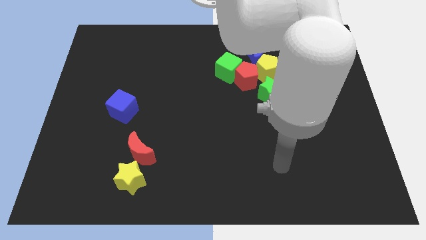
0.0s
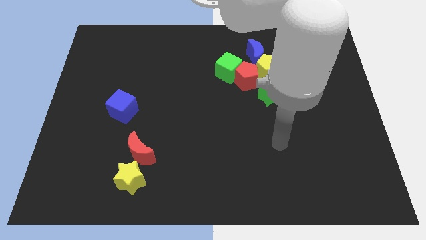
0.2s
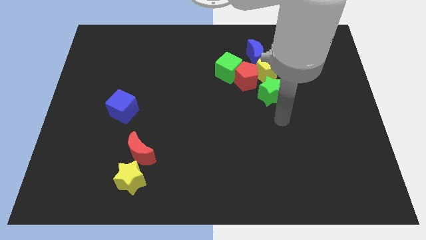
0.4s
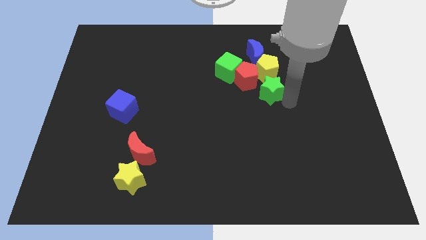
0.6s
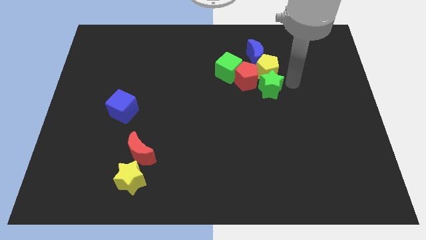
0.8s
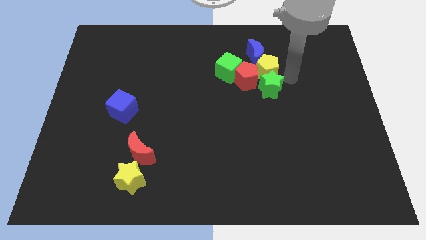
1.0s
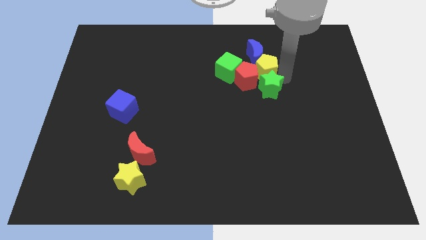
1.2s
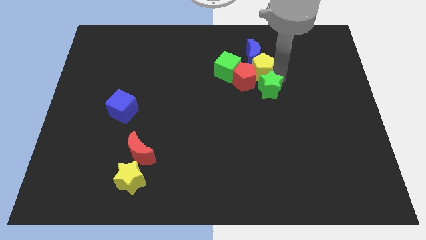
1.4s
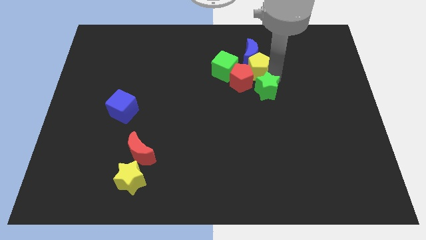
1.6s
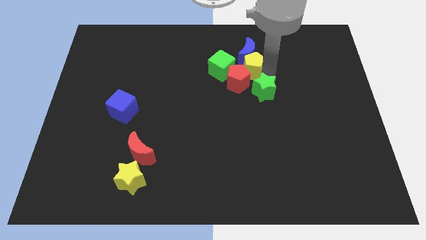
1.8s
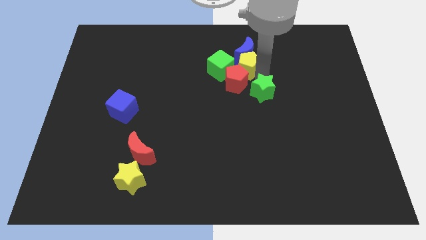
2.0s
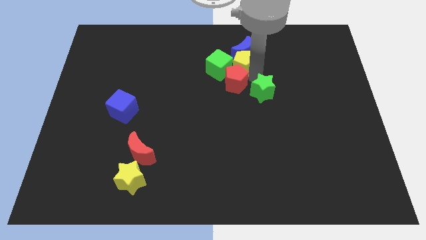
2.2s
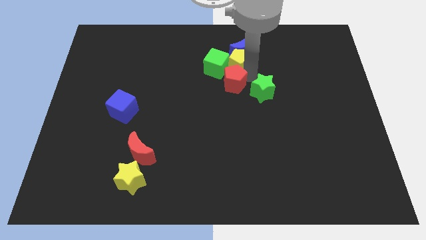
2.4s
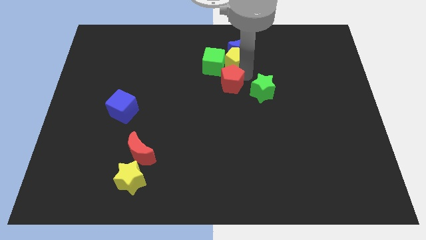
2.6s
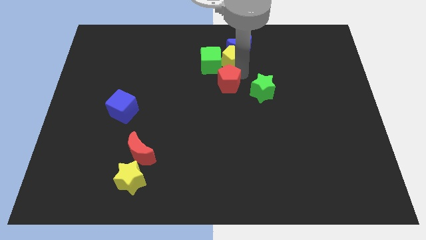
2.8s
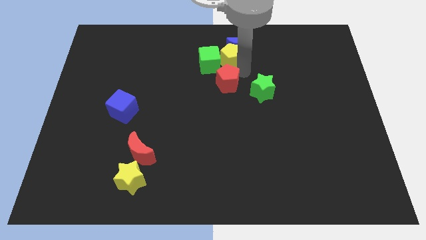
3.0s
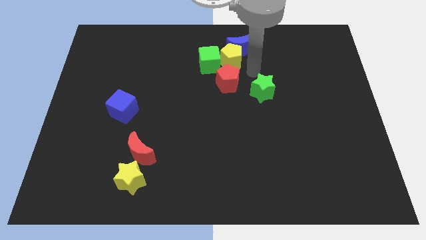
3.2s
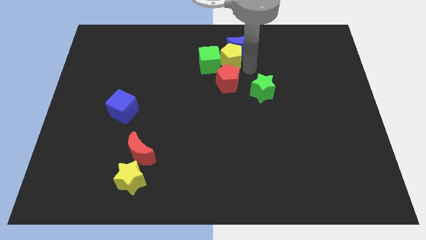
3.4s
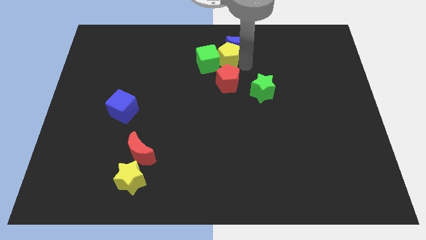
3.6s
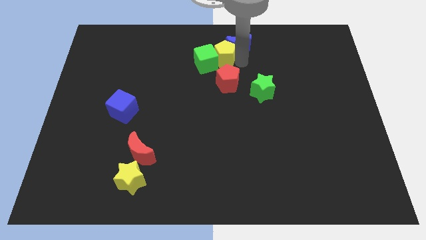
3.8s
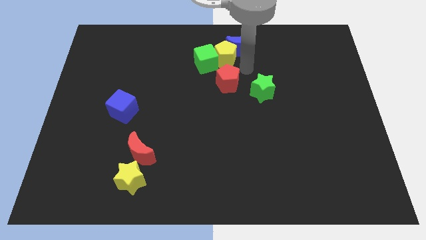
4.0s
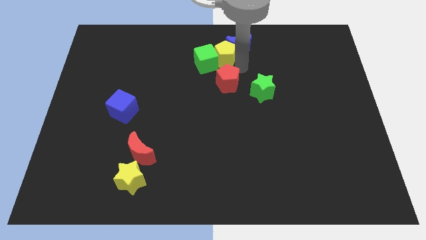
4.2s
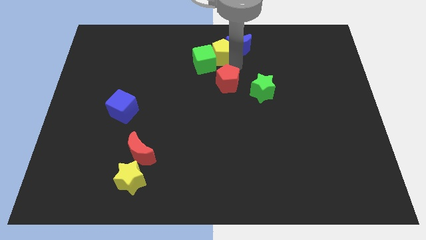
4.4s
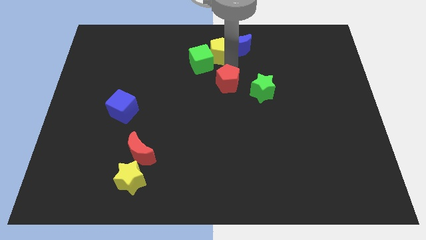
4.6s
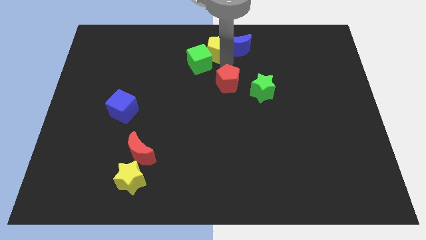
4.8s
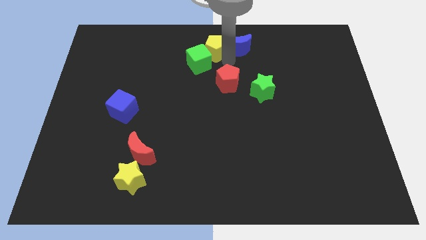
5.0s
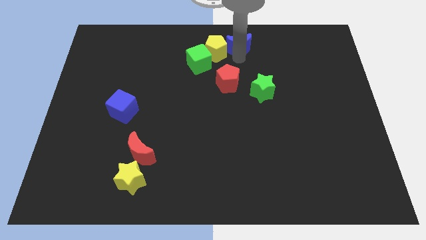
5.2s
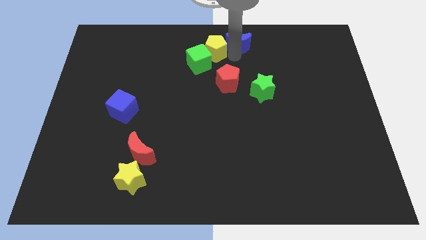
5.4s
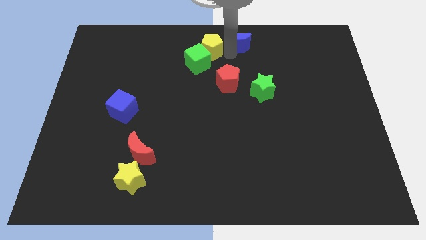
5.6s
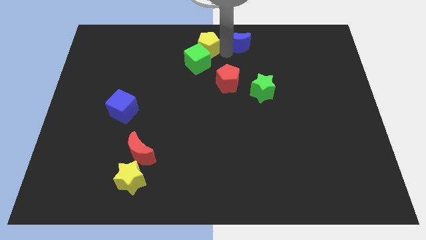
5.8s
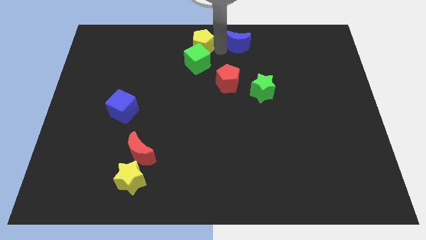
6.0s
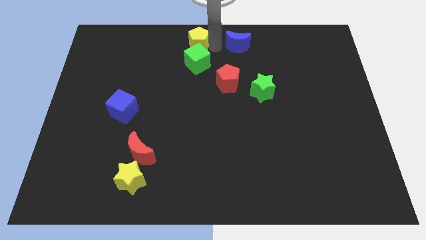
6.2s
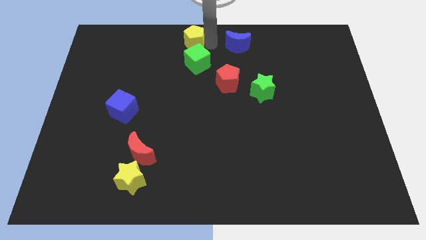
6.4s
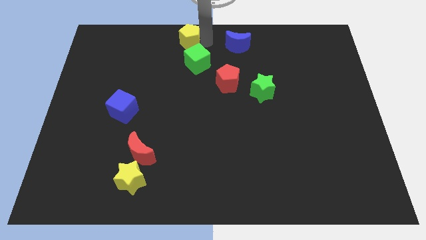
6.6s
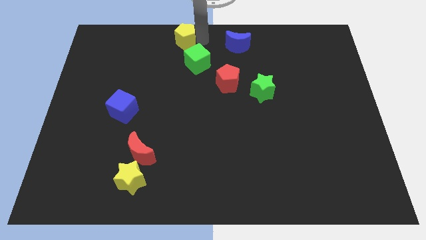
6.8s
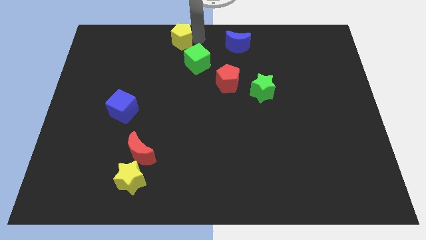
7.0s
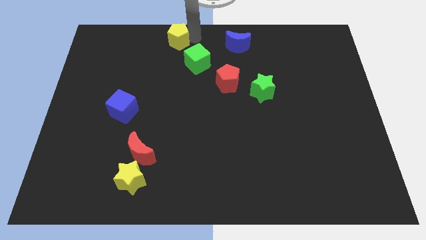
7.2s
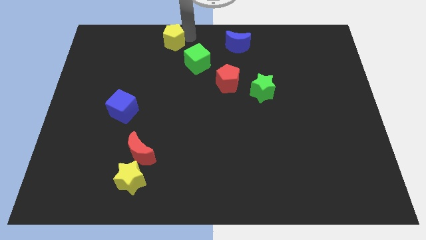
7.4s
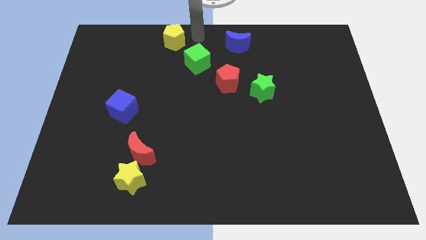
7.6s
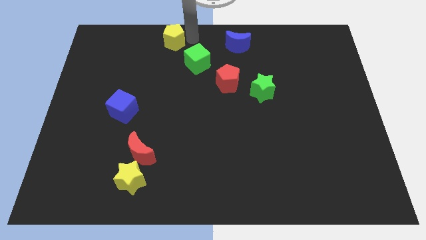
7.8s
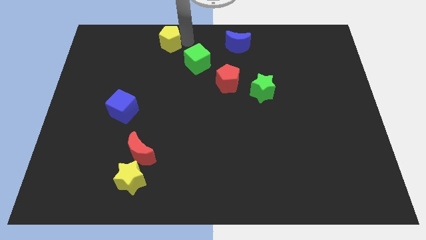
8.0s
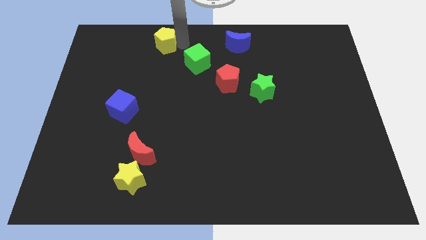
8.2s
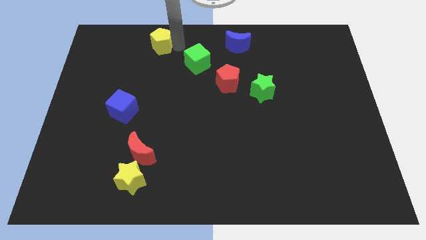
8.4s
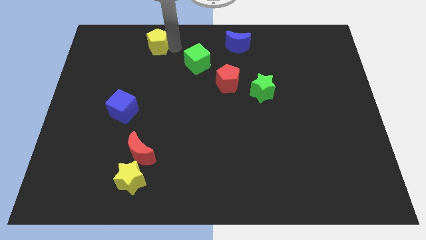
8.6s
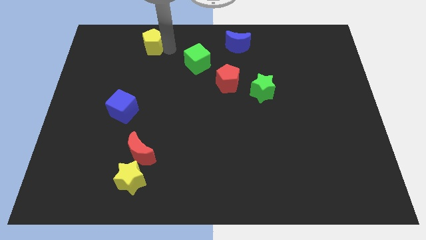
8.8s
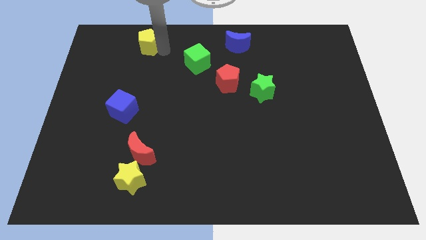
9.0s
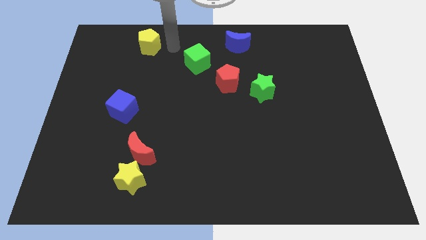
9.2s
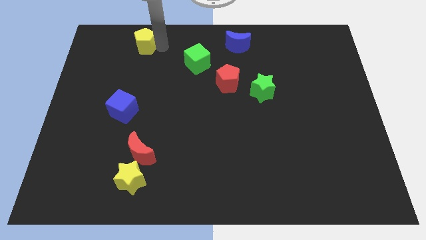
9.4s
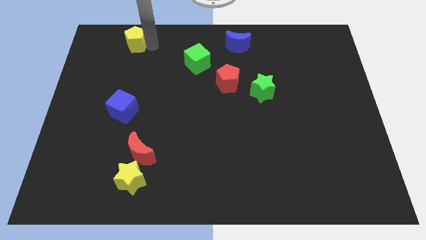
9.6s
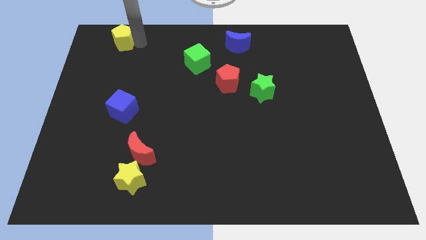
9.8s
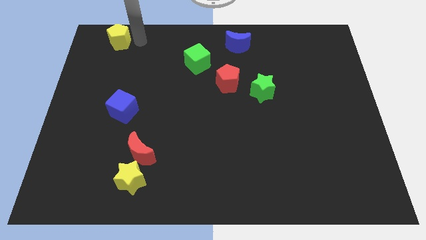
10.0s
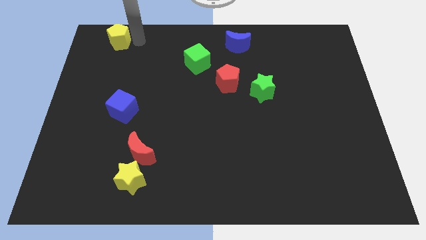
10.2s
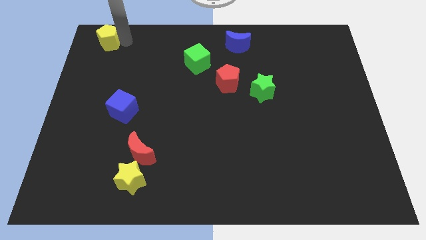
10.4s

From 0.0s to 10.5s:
move the yellow pentagon to the top left corner

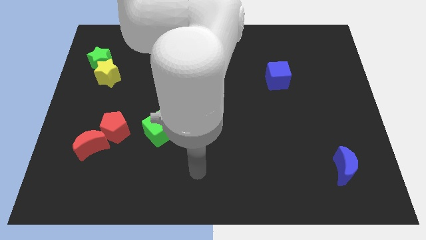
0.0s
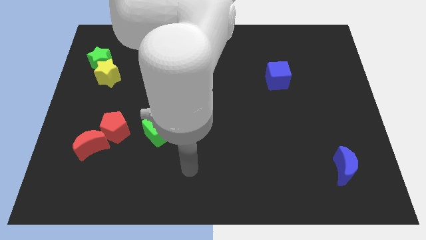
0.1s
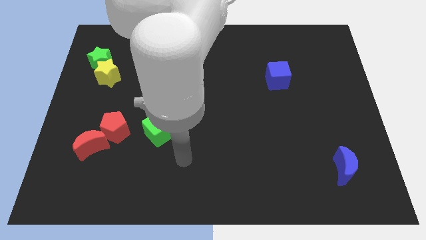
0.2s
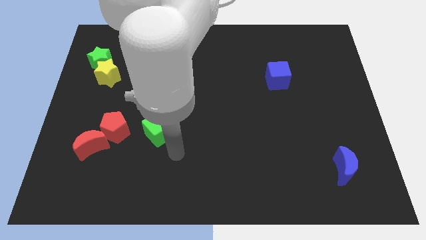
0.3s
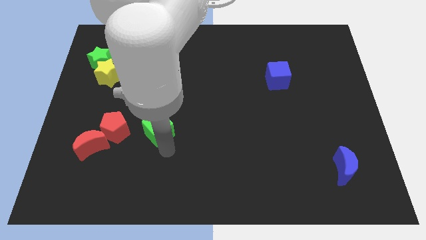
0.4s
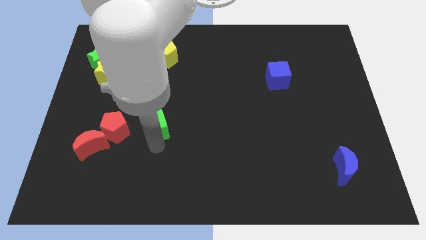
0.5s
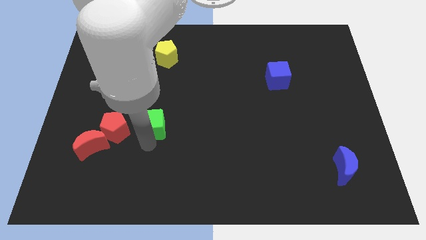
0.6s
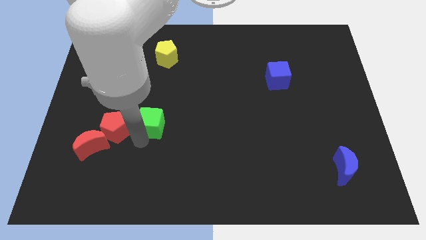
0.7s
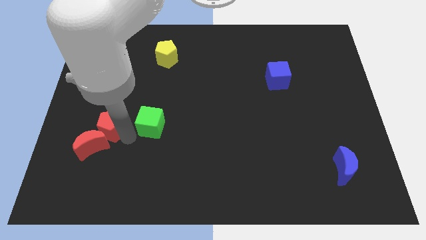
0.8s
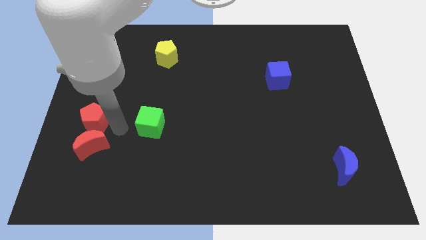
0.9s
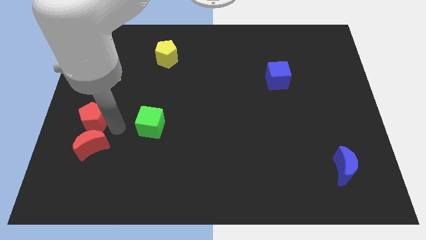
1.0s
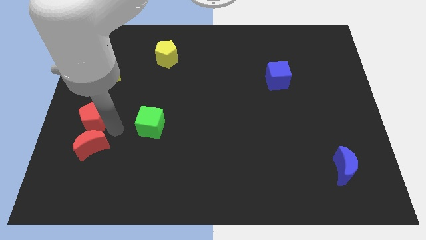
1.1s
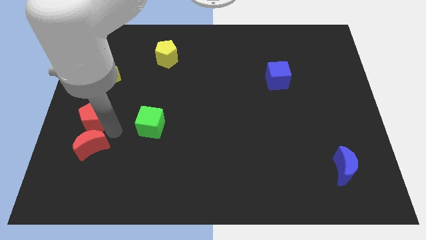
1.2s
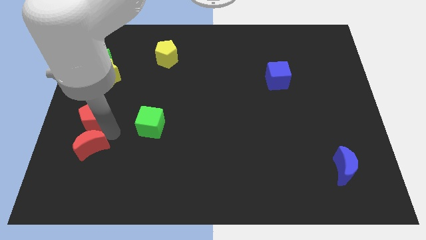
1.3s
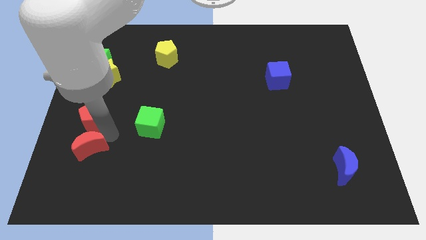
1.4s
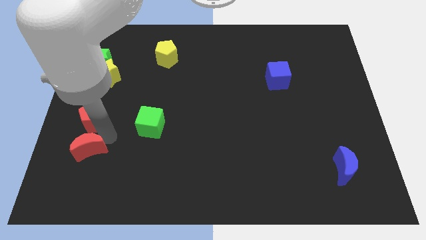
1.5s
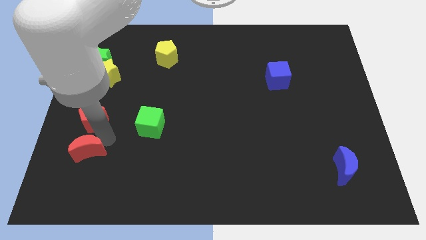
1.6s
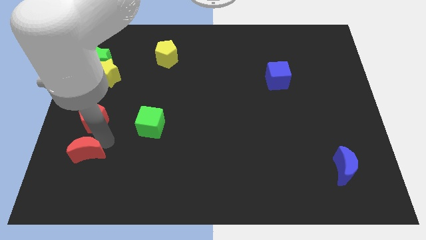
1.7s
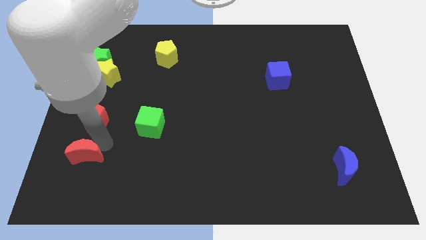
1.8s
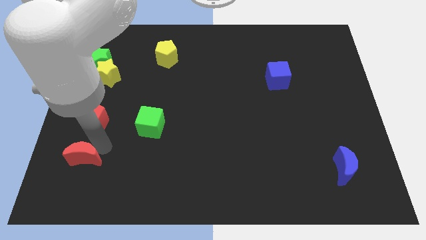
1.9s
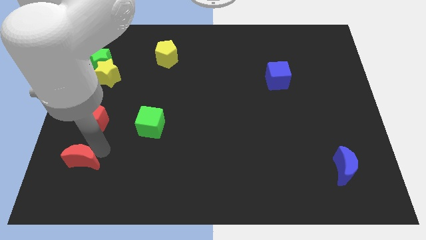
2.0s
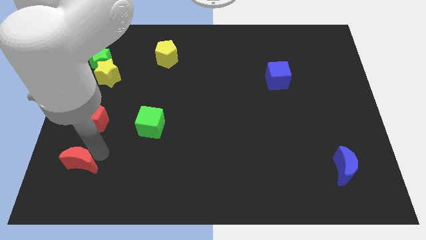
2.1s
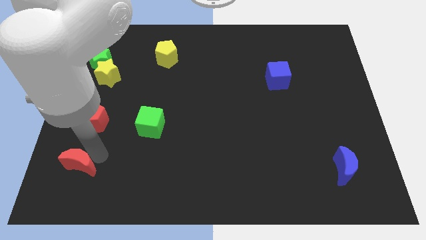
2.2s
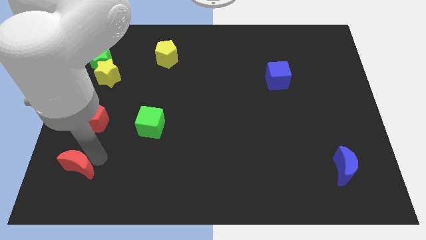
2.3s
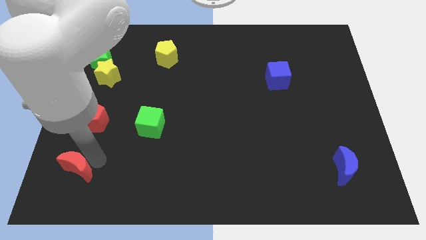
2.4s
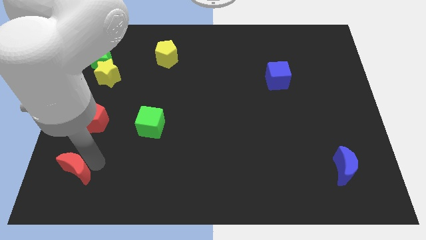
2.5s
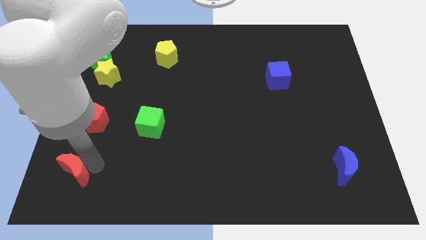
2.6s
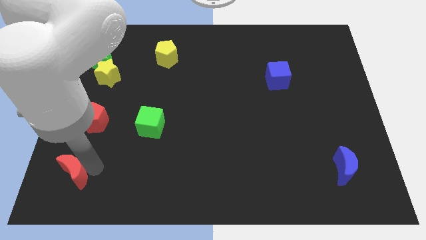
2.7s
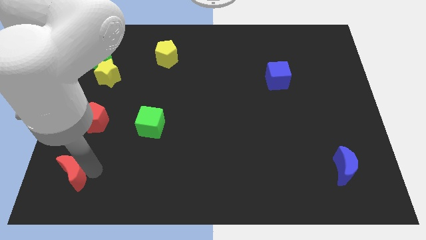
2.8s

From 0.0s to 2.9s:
move the red moon to the lower left corner
